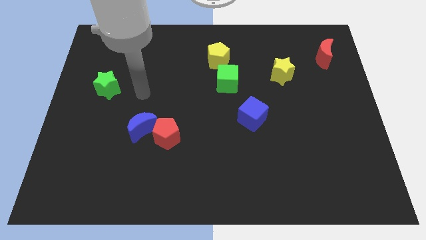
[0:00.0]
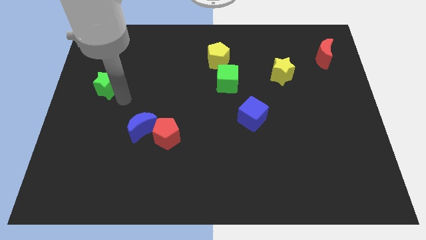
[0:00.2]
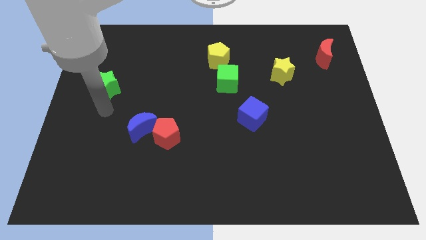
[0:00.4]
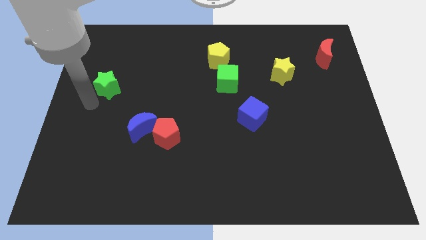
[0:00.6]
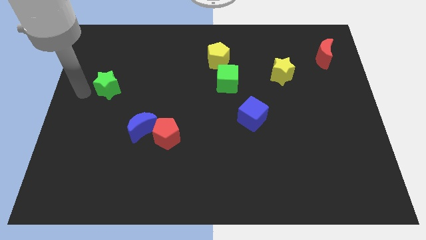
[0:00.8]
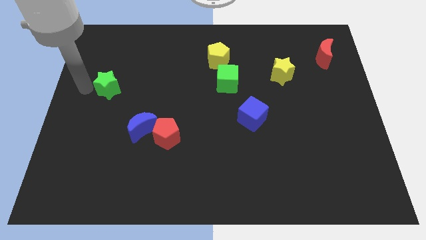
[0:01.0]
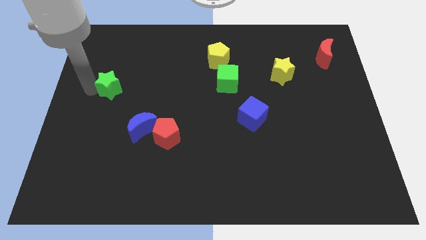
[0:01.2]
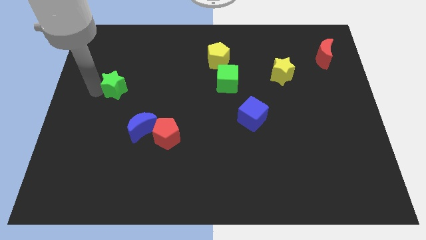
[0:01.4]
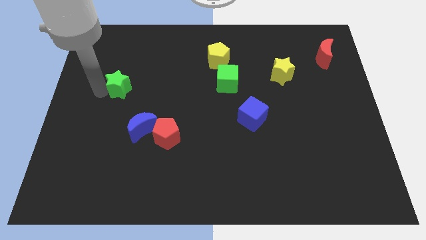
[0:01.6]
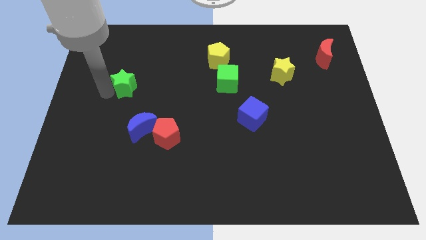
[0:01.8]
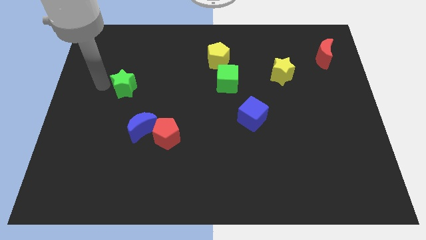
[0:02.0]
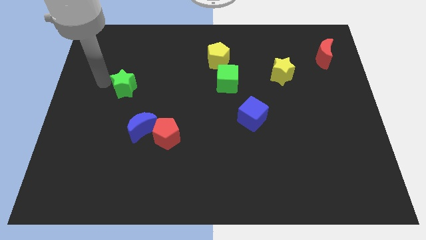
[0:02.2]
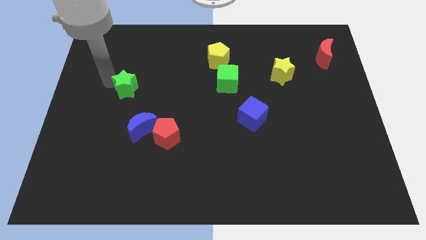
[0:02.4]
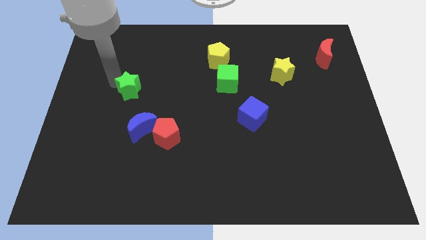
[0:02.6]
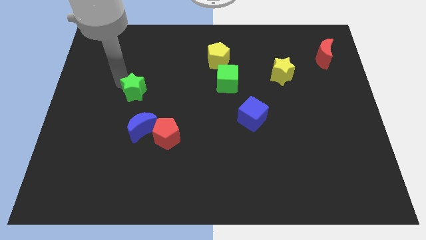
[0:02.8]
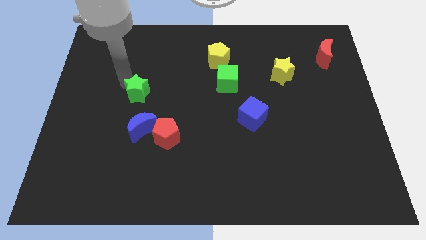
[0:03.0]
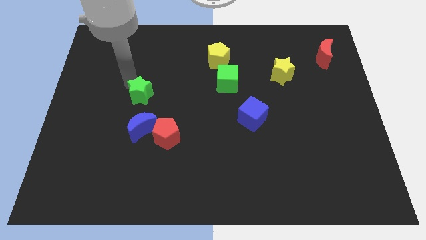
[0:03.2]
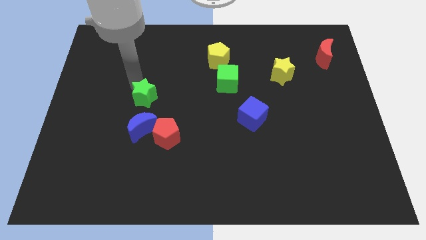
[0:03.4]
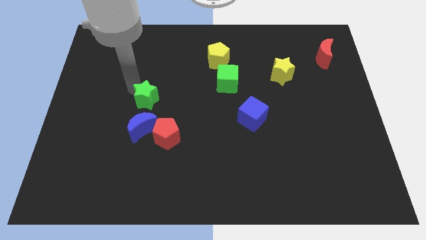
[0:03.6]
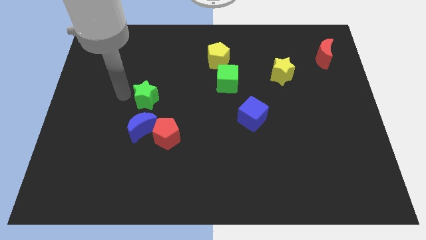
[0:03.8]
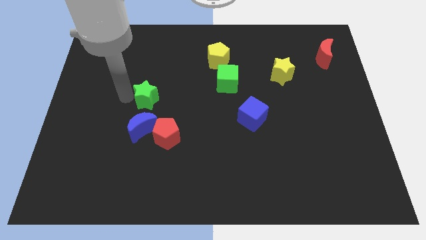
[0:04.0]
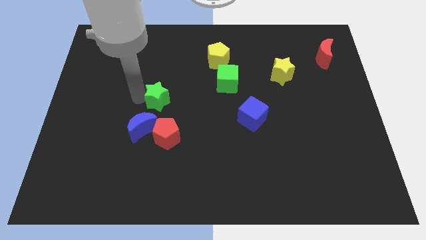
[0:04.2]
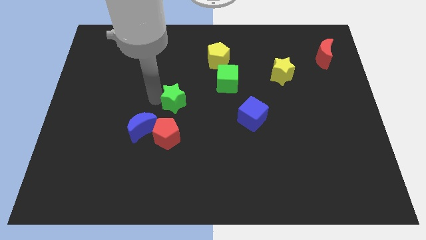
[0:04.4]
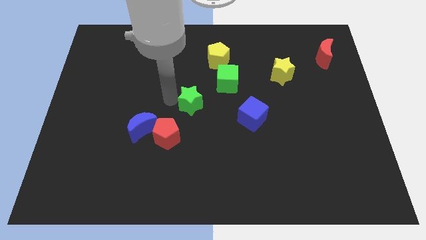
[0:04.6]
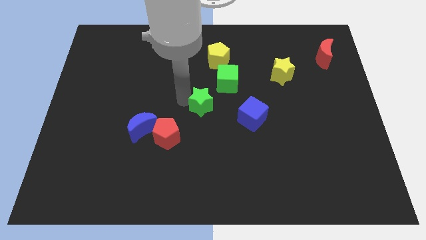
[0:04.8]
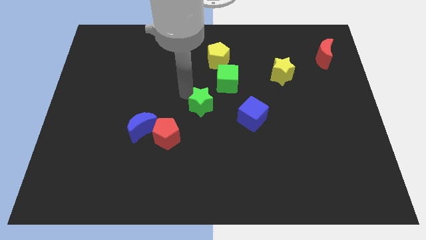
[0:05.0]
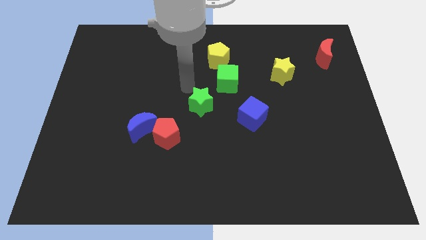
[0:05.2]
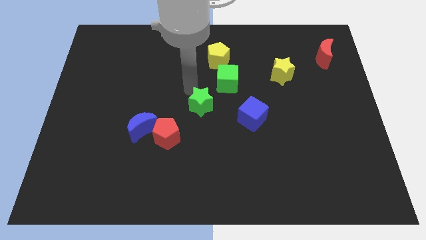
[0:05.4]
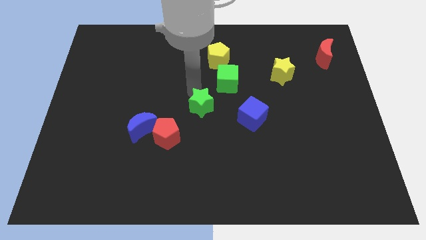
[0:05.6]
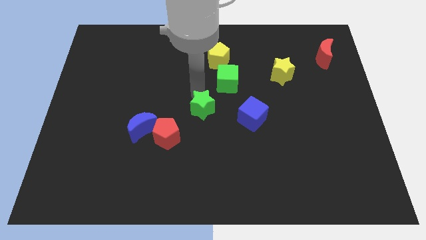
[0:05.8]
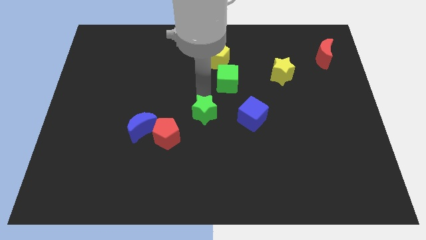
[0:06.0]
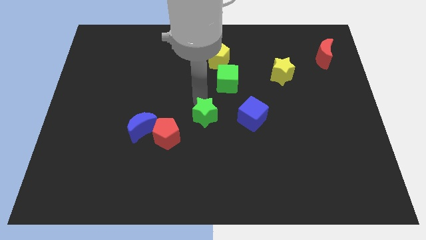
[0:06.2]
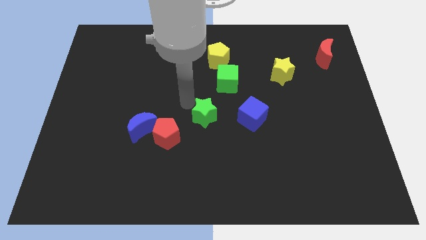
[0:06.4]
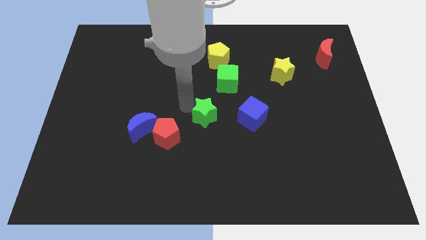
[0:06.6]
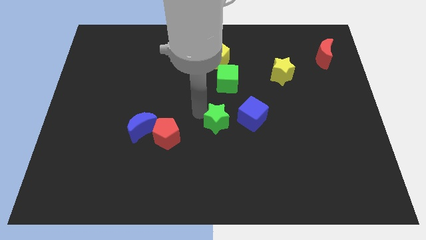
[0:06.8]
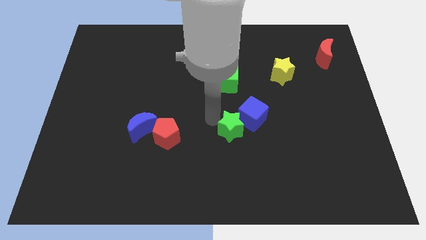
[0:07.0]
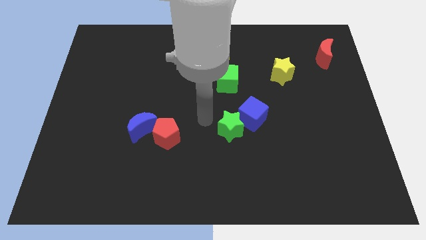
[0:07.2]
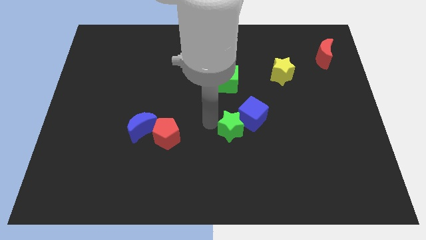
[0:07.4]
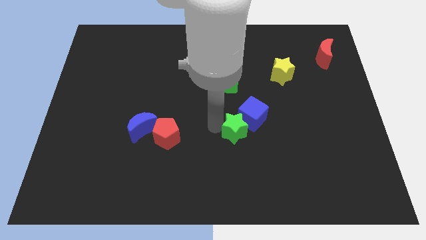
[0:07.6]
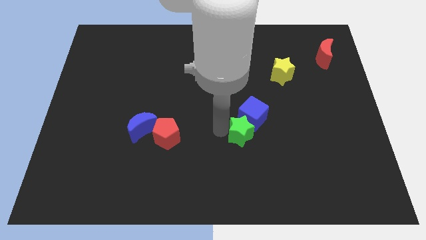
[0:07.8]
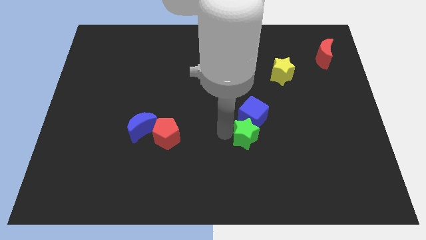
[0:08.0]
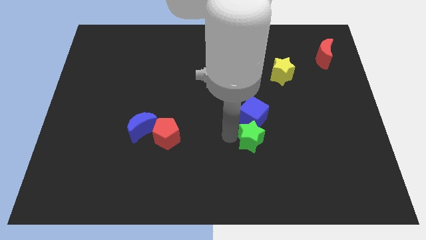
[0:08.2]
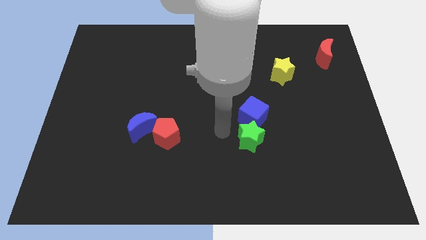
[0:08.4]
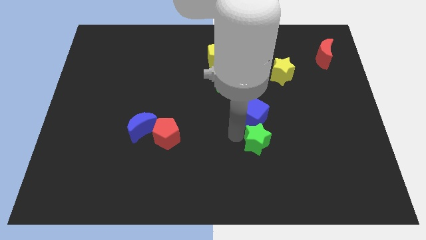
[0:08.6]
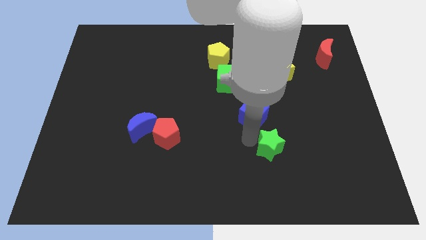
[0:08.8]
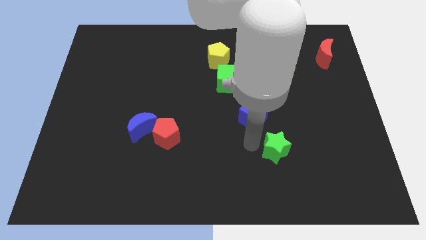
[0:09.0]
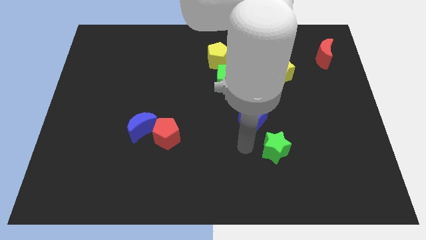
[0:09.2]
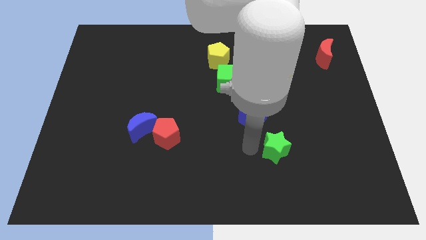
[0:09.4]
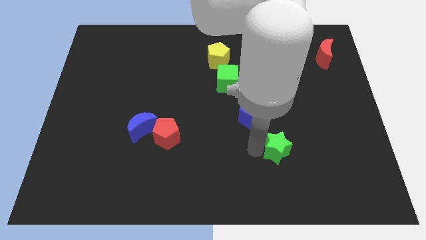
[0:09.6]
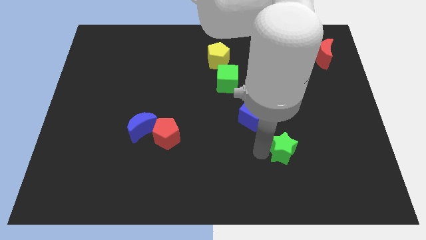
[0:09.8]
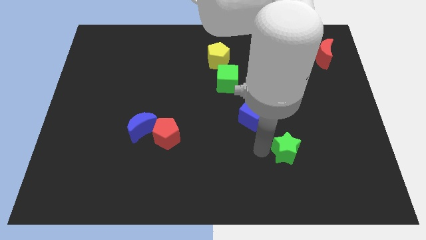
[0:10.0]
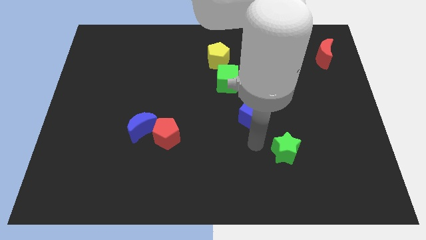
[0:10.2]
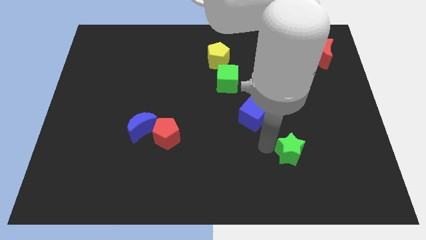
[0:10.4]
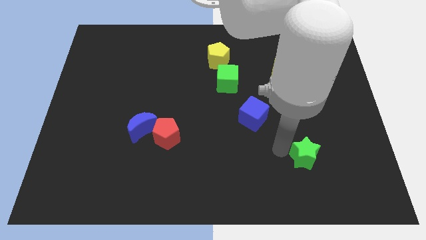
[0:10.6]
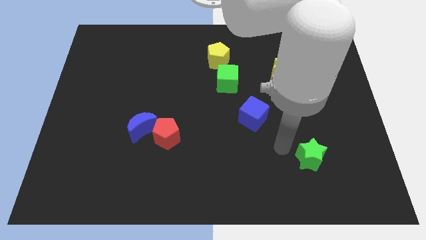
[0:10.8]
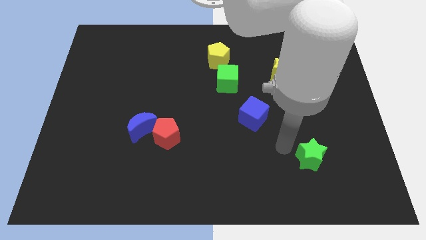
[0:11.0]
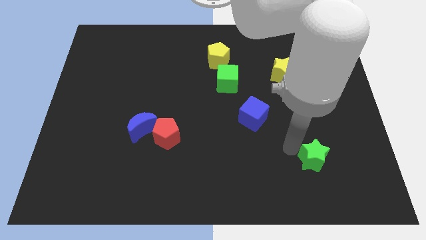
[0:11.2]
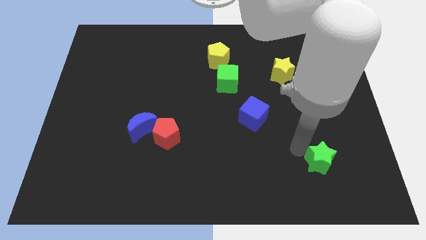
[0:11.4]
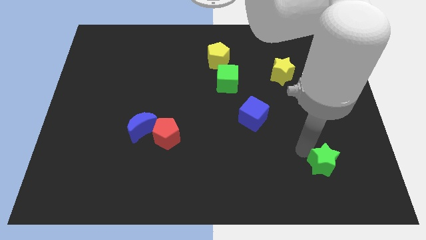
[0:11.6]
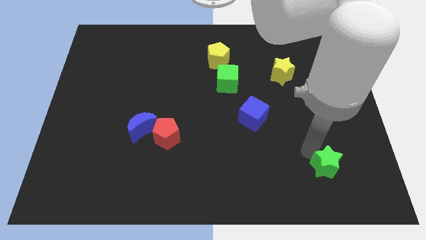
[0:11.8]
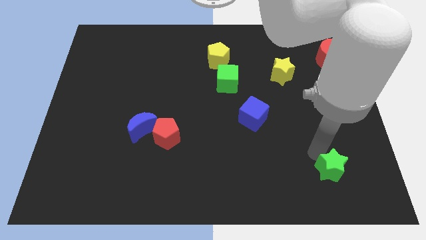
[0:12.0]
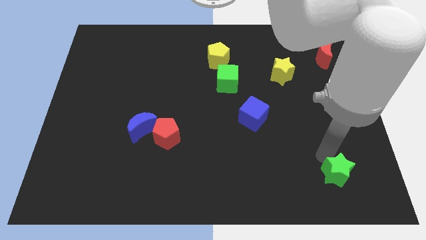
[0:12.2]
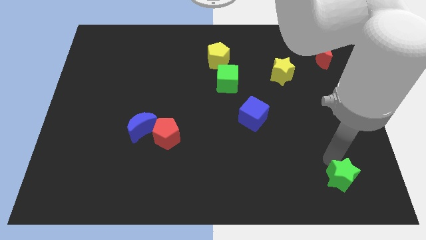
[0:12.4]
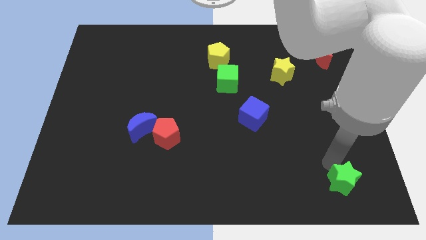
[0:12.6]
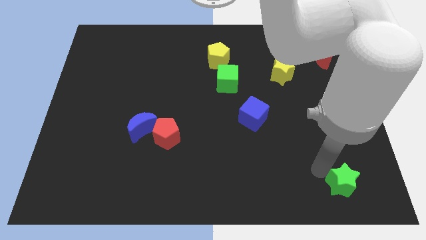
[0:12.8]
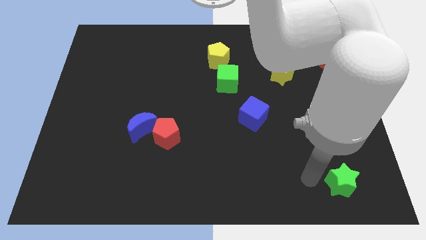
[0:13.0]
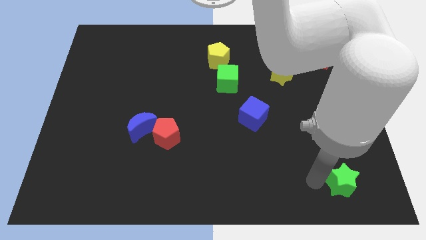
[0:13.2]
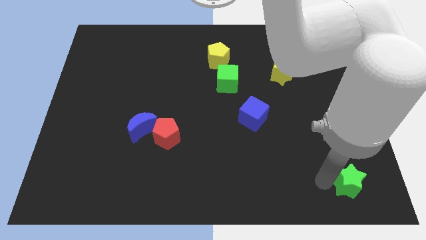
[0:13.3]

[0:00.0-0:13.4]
push the green star to the lower right corner
